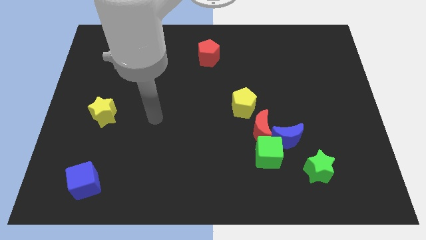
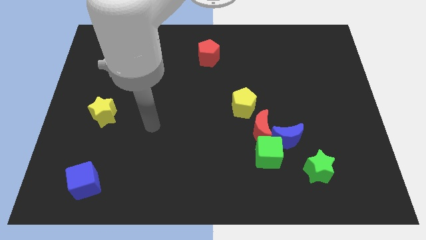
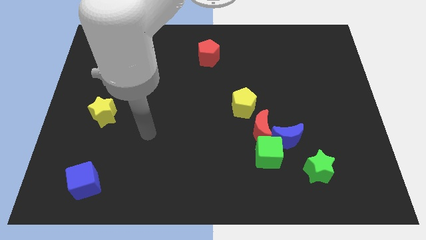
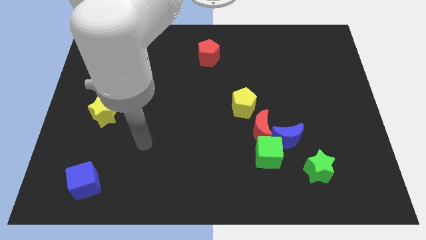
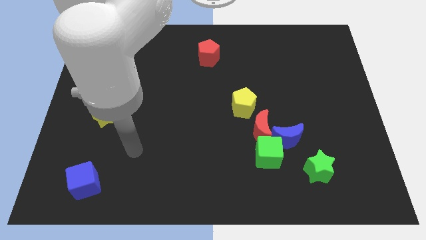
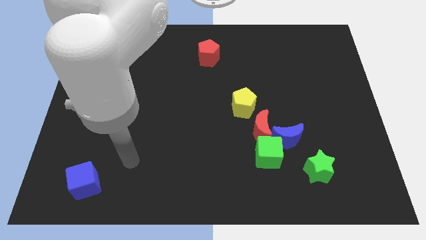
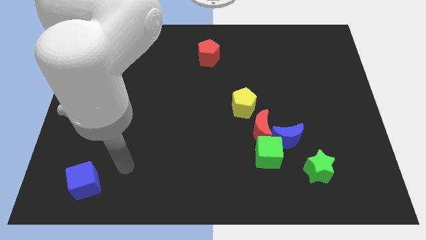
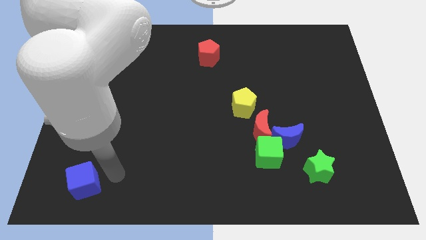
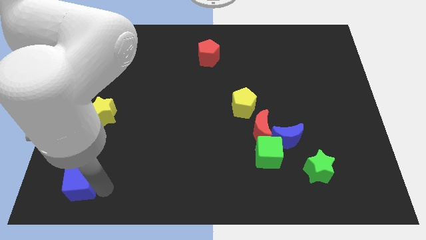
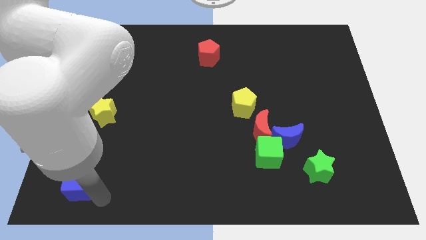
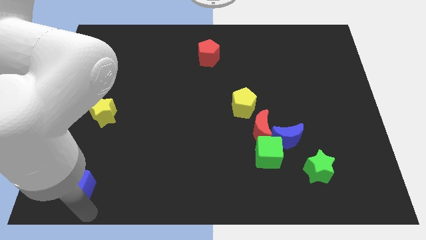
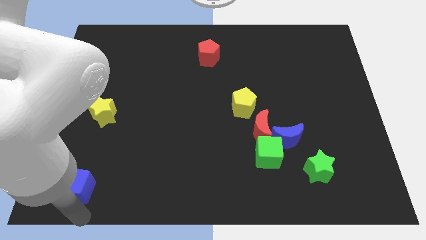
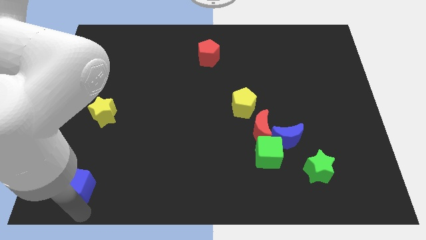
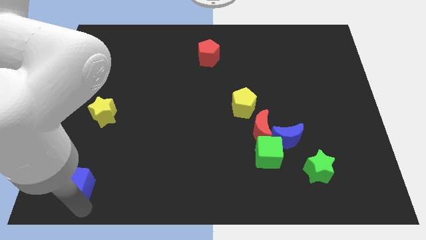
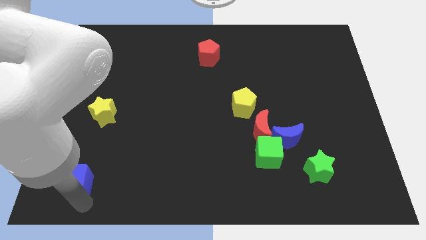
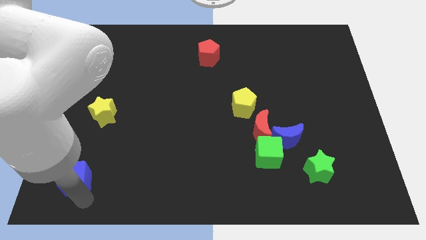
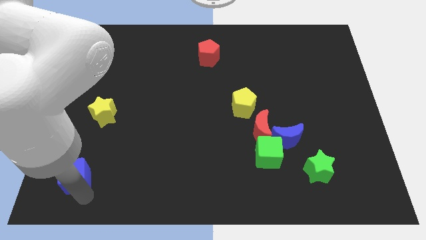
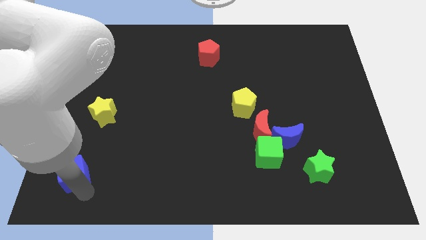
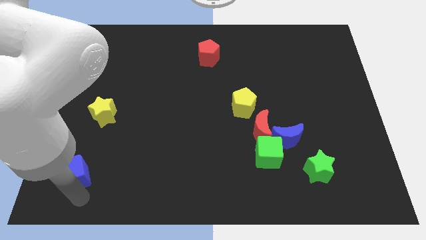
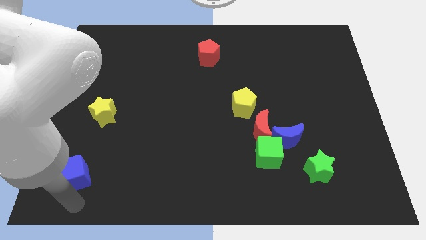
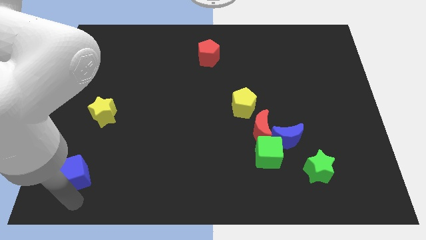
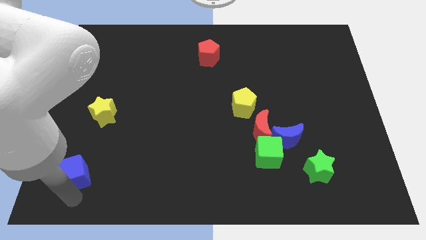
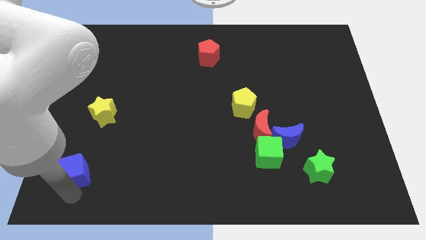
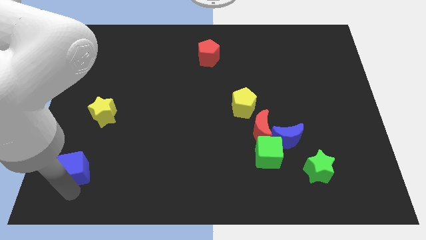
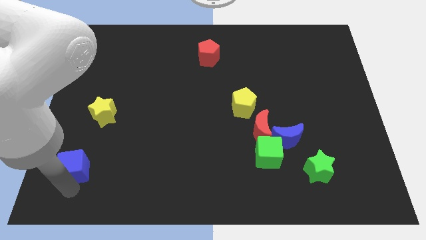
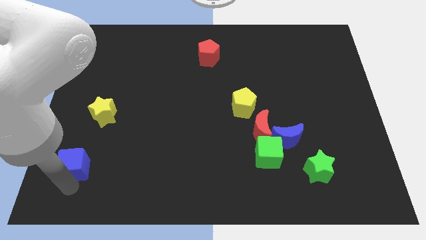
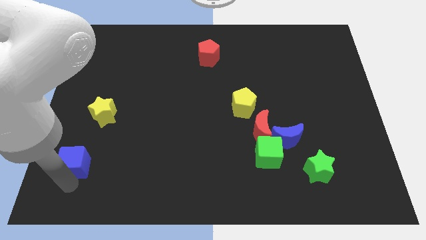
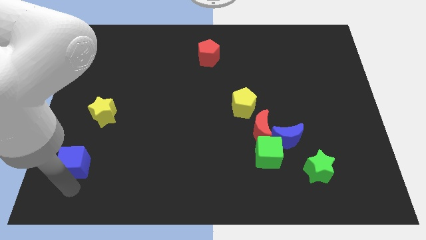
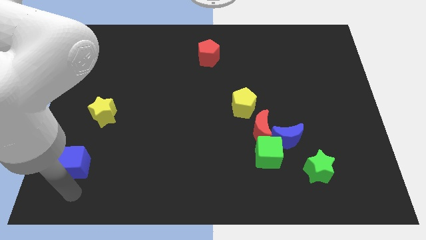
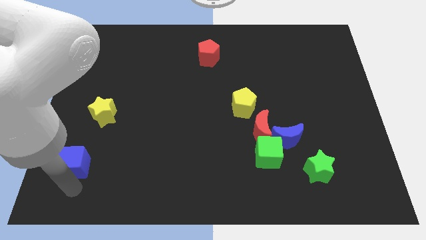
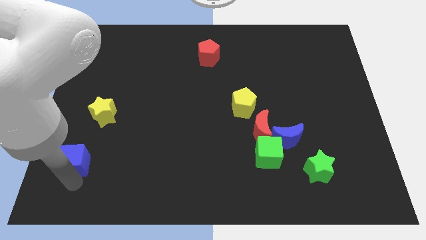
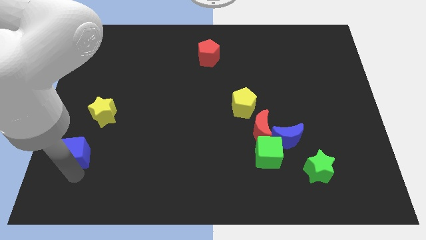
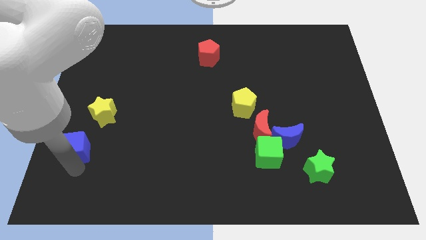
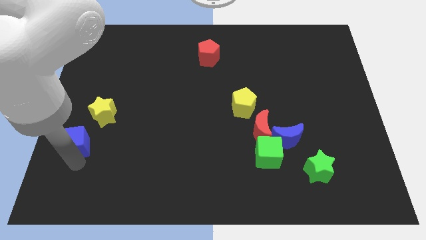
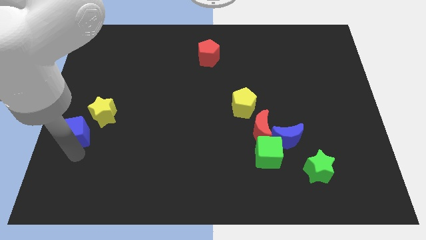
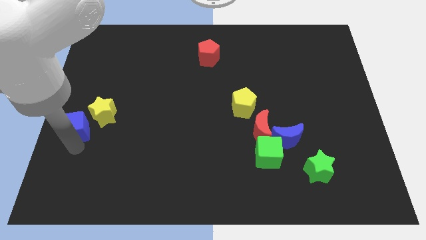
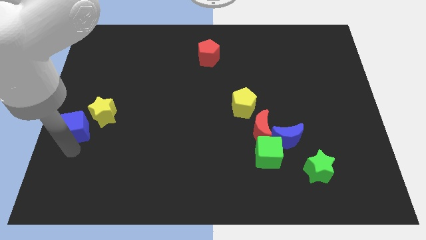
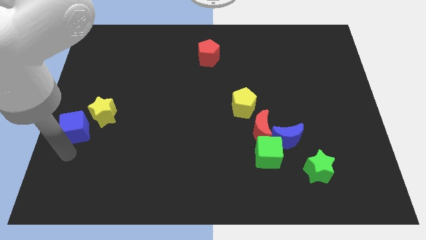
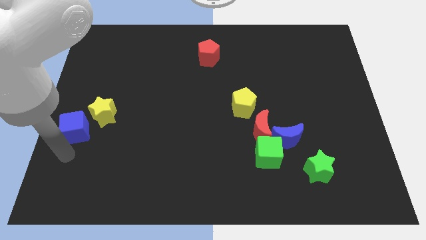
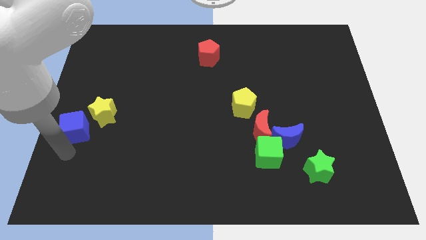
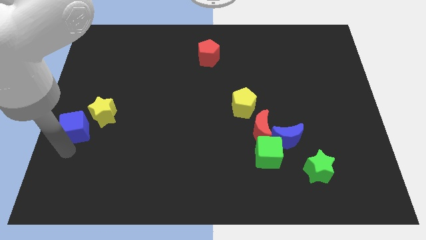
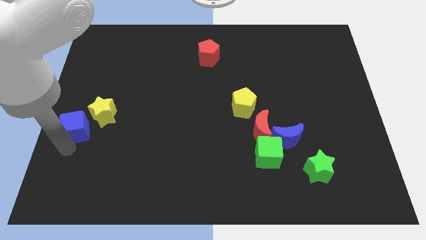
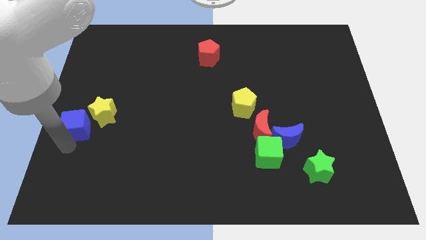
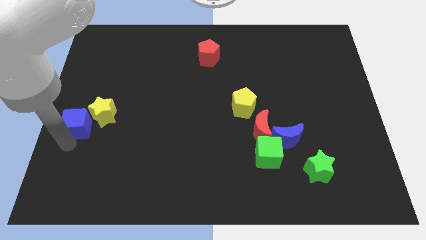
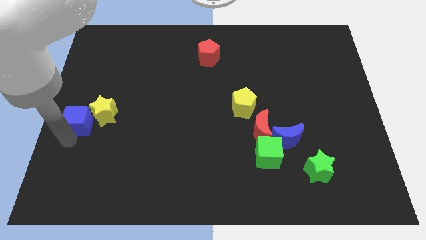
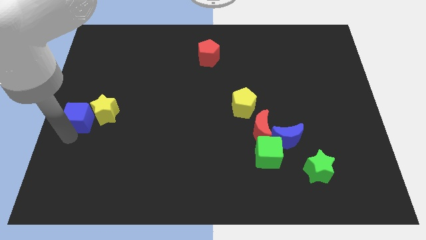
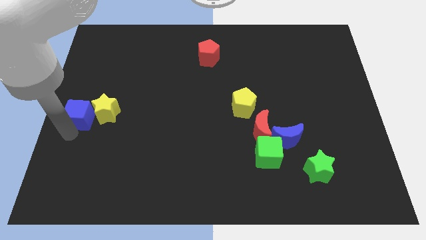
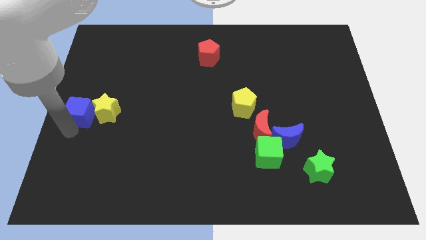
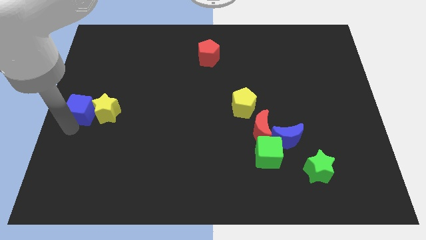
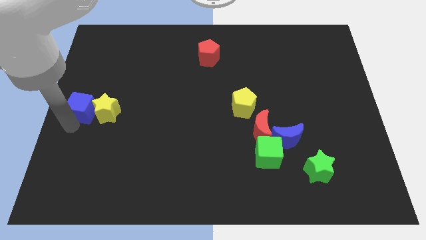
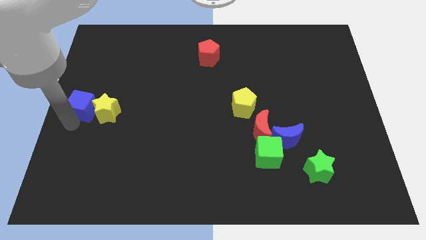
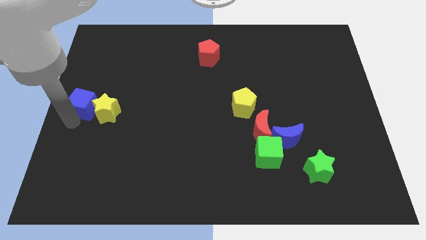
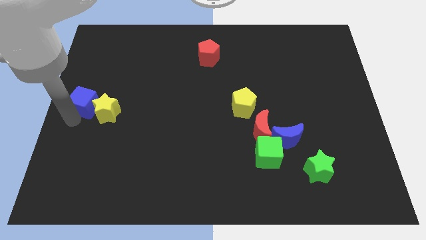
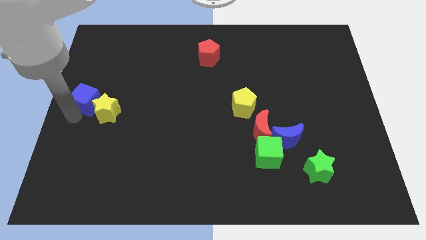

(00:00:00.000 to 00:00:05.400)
push the blue cube upwards

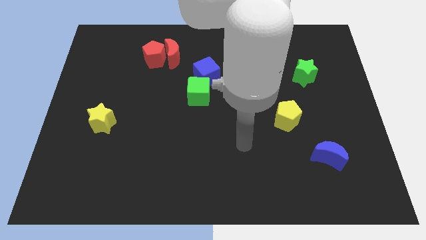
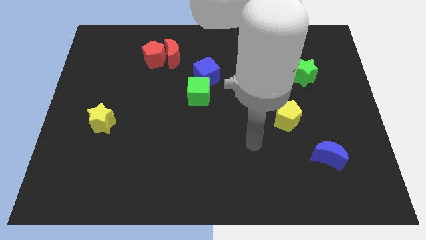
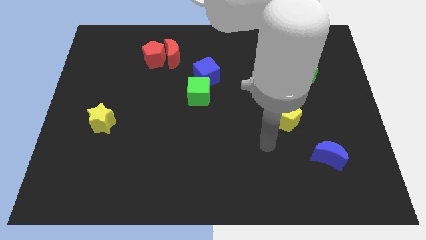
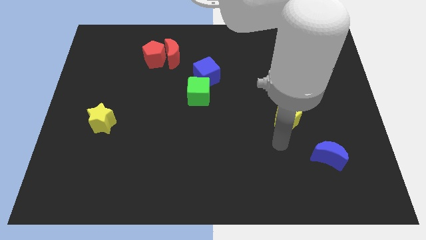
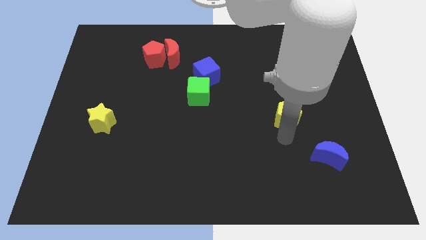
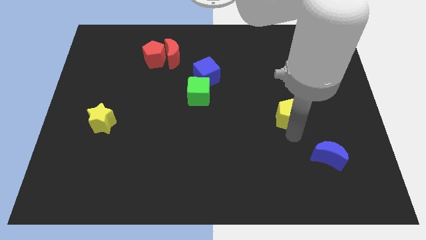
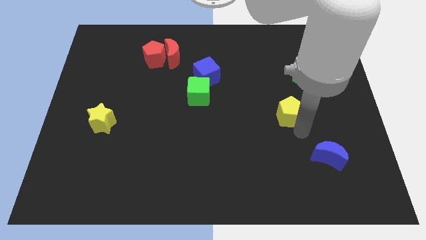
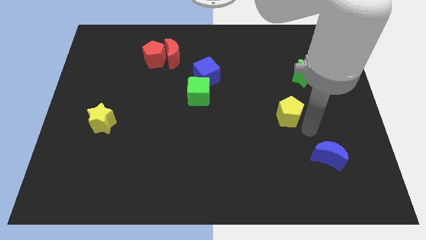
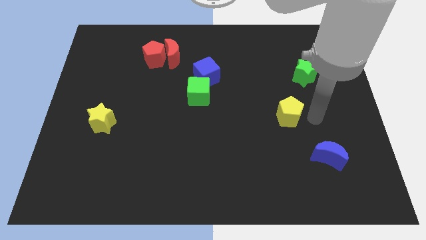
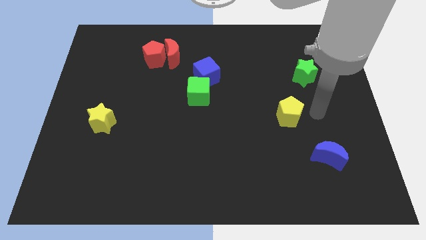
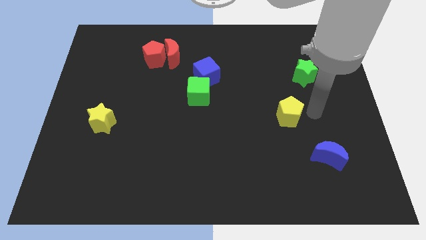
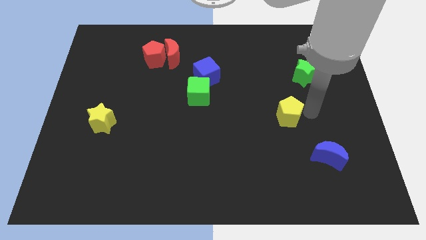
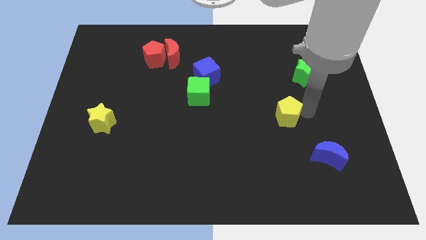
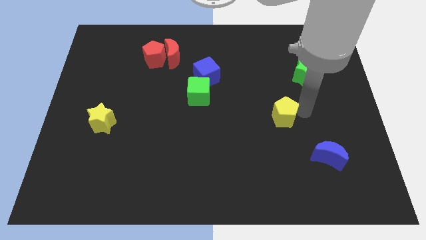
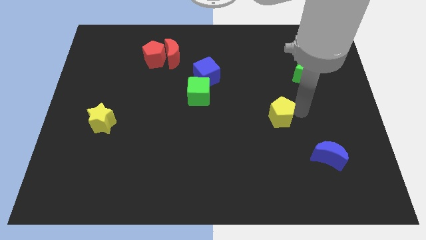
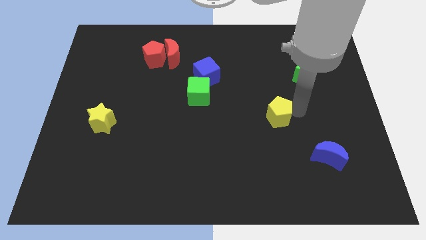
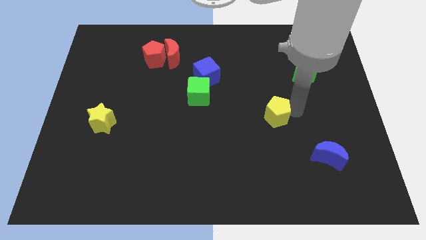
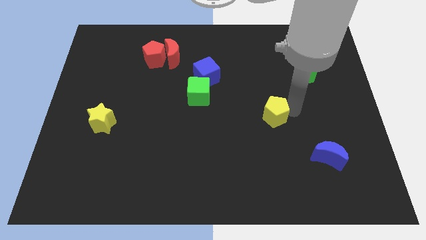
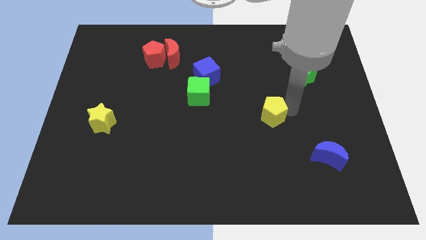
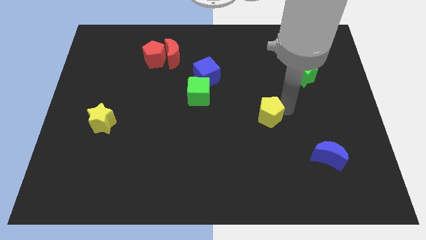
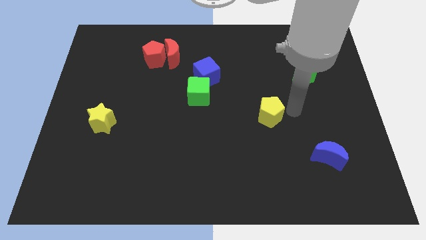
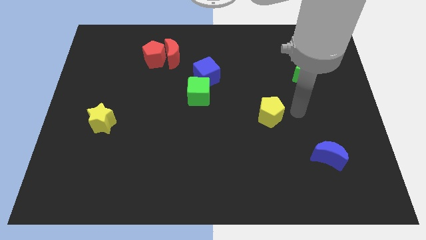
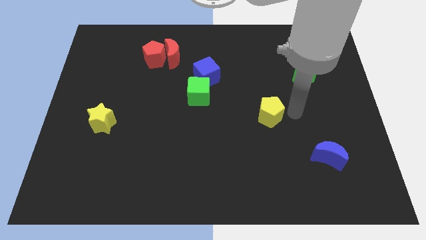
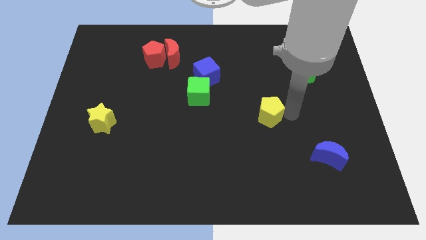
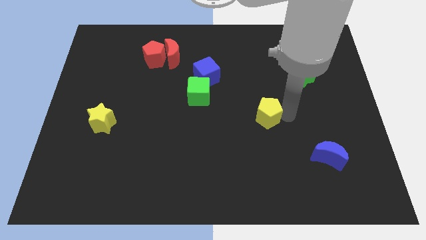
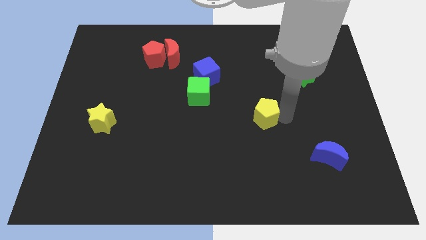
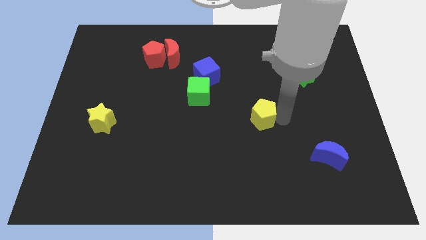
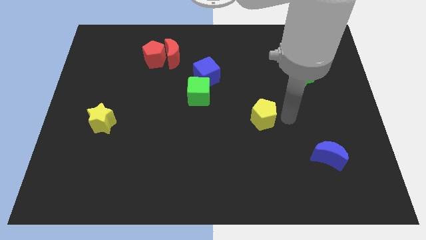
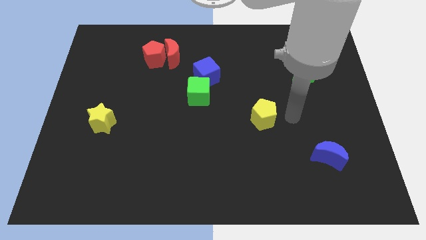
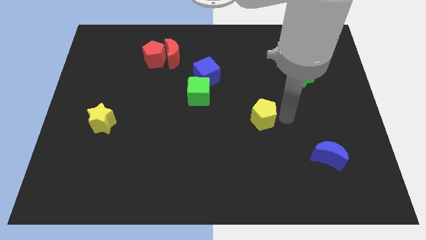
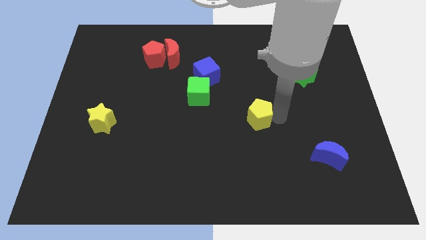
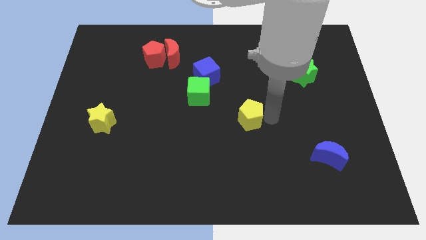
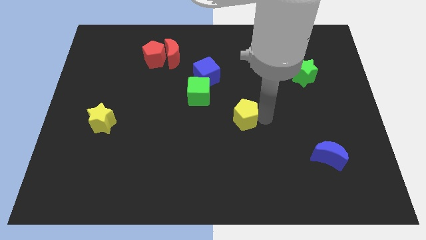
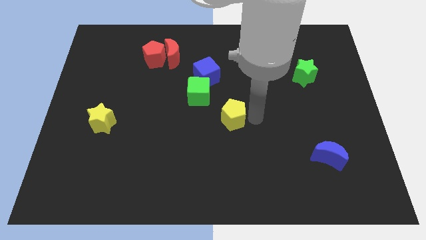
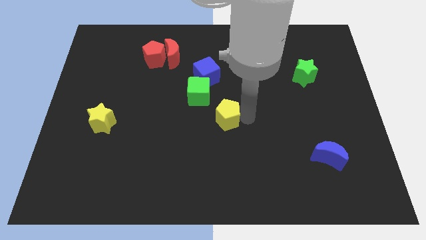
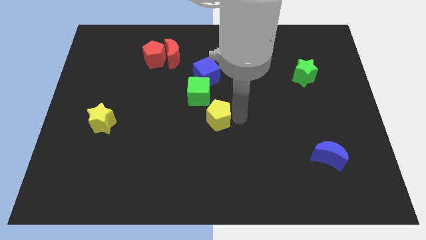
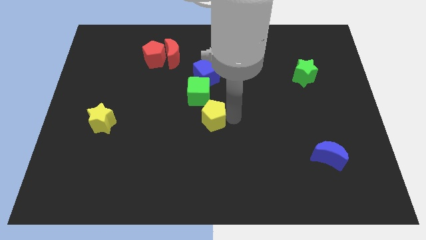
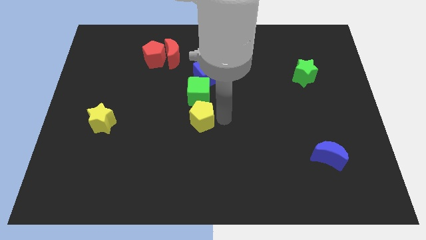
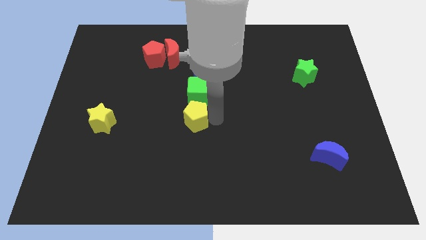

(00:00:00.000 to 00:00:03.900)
push the yellow pentagon left
